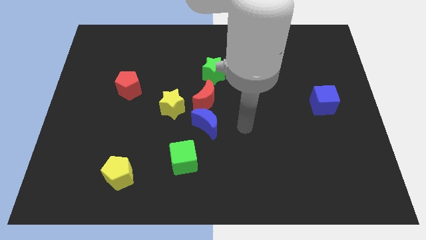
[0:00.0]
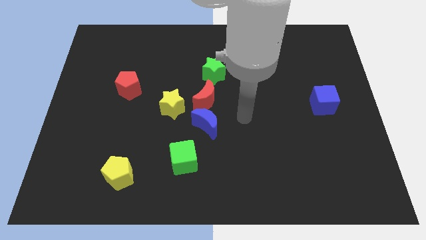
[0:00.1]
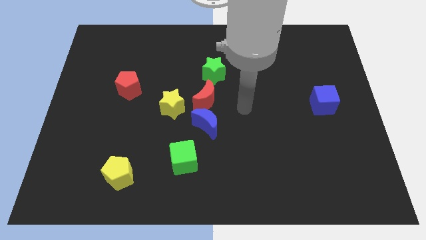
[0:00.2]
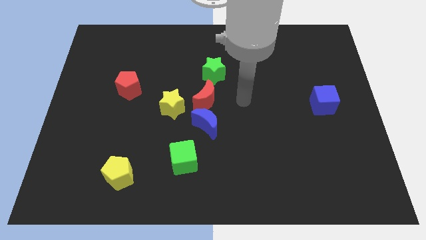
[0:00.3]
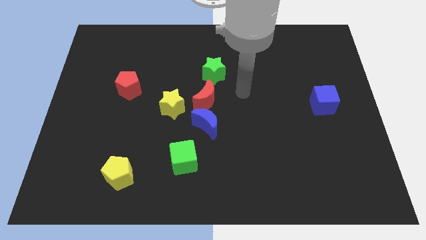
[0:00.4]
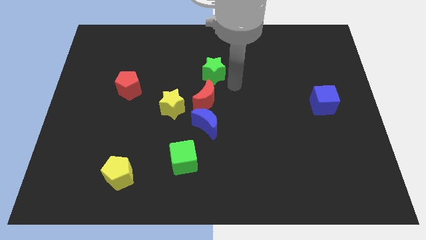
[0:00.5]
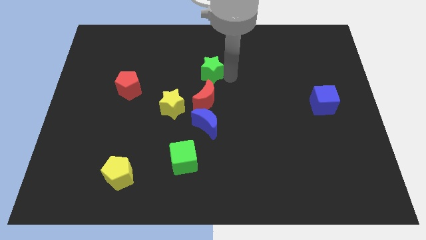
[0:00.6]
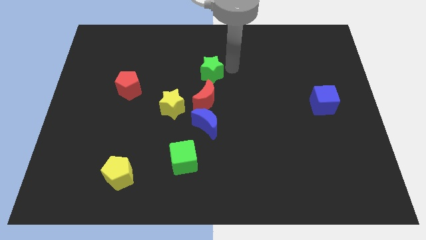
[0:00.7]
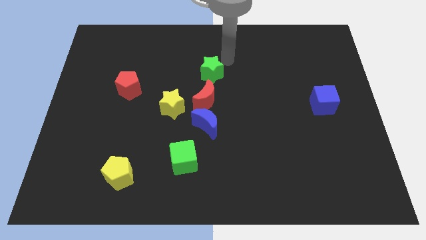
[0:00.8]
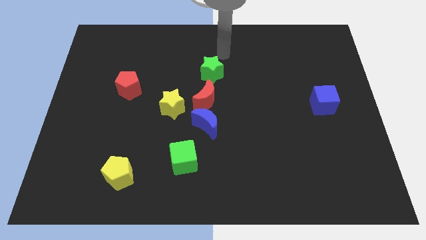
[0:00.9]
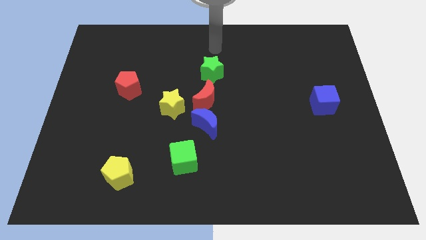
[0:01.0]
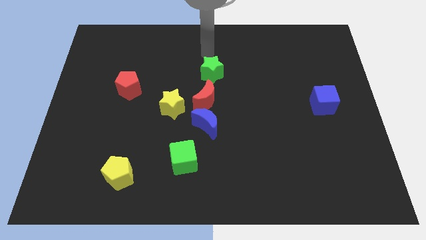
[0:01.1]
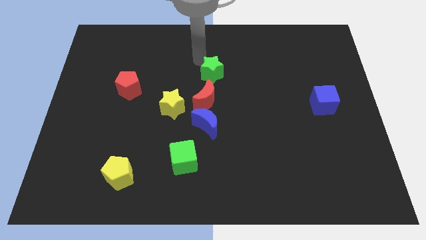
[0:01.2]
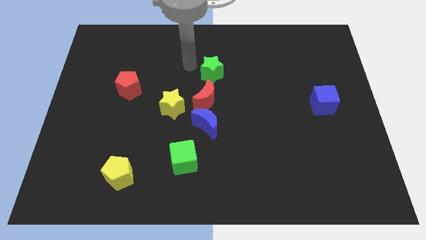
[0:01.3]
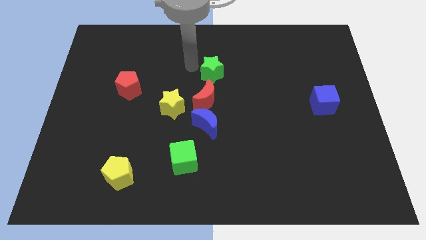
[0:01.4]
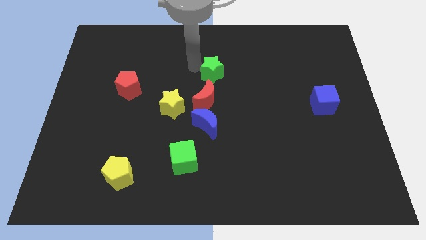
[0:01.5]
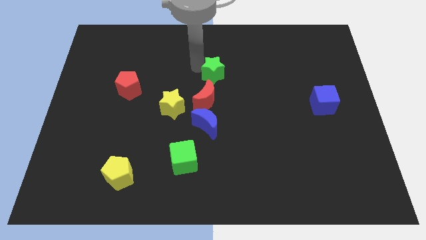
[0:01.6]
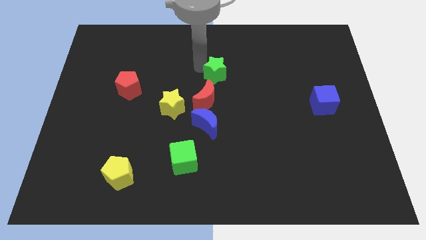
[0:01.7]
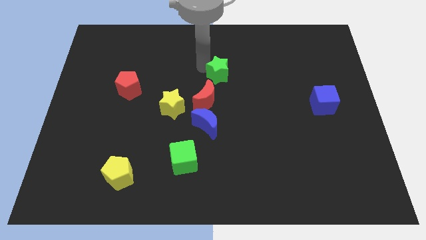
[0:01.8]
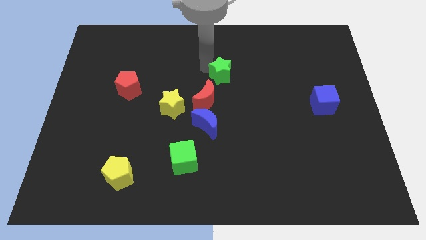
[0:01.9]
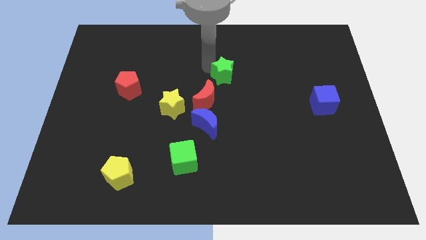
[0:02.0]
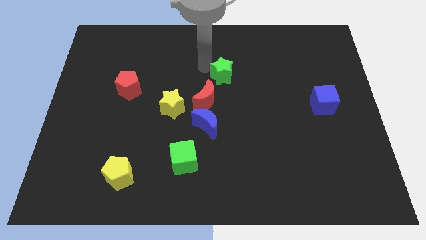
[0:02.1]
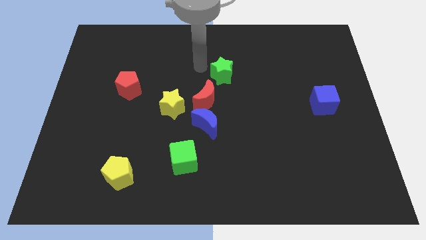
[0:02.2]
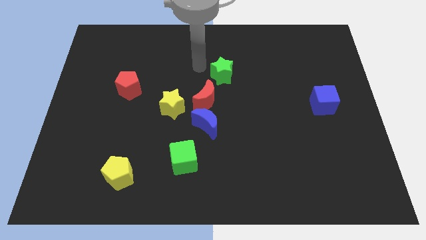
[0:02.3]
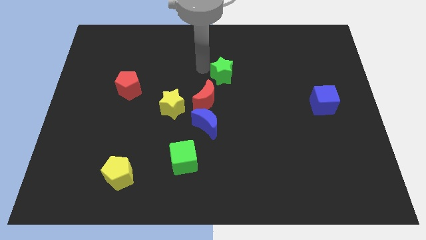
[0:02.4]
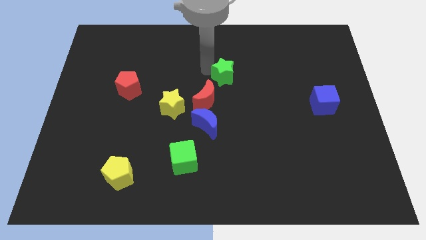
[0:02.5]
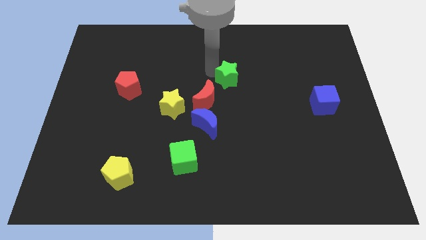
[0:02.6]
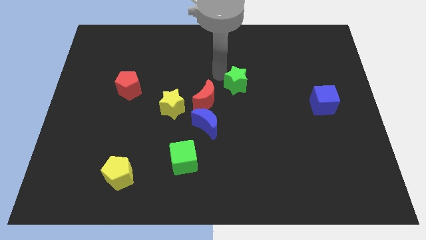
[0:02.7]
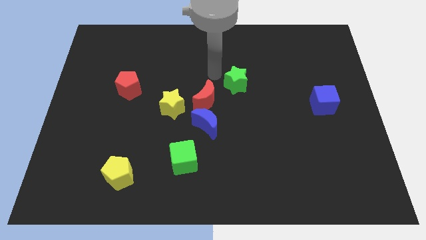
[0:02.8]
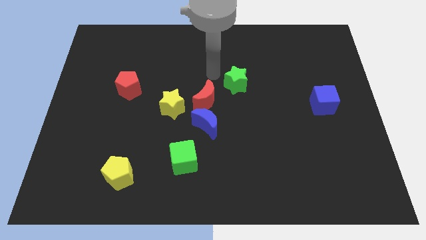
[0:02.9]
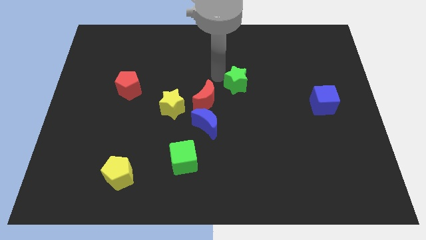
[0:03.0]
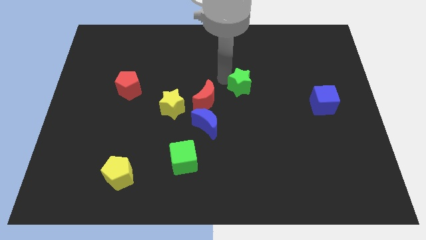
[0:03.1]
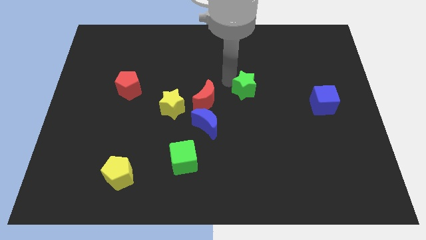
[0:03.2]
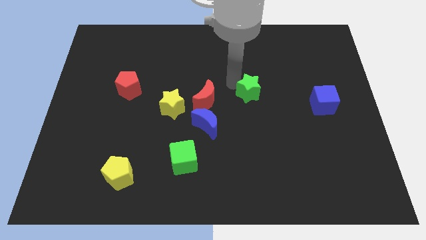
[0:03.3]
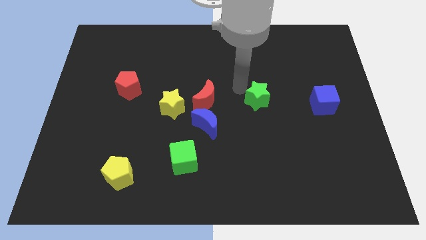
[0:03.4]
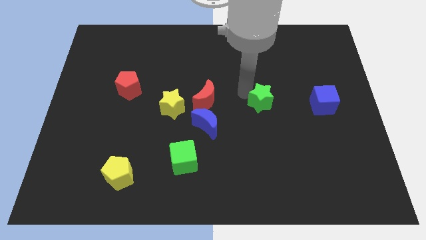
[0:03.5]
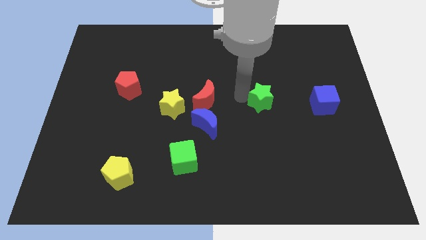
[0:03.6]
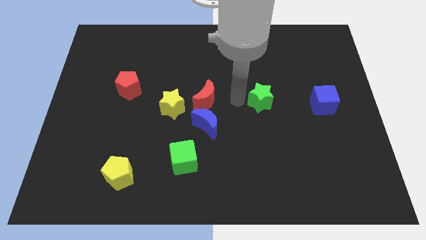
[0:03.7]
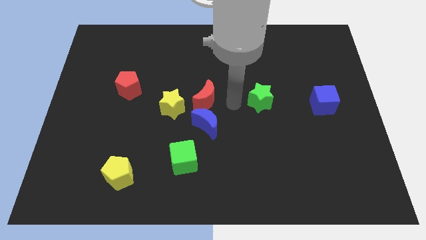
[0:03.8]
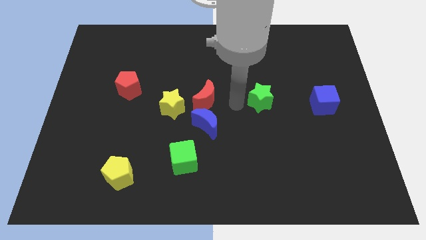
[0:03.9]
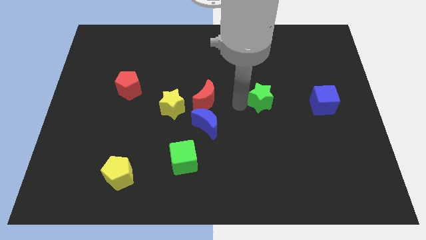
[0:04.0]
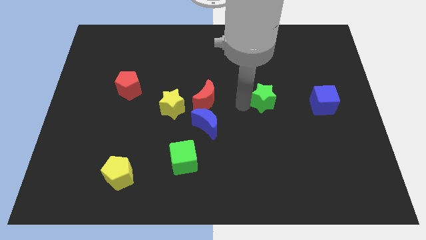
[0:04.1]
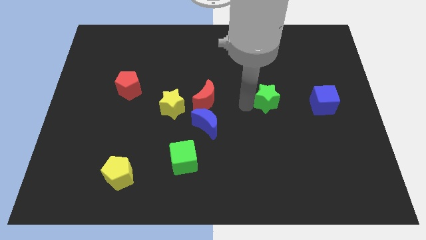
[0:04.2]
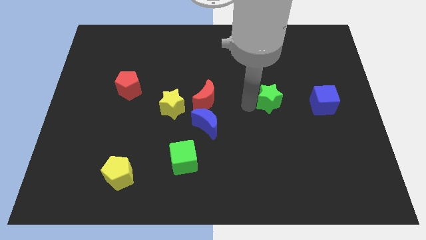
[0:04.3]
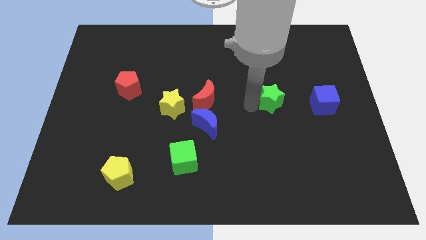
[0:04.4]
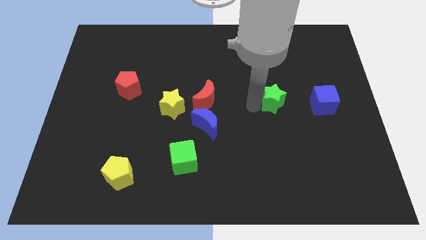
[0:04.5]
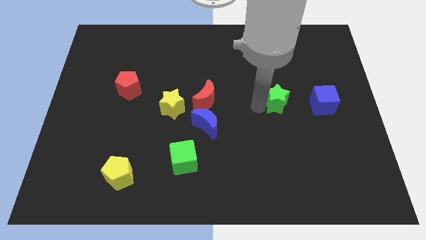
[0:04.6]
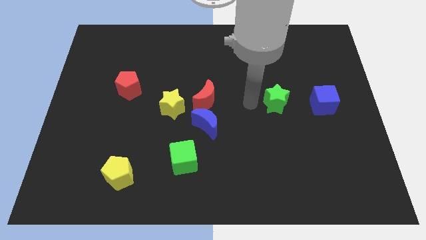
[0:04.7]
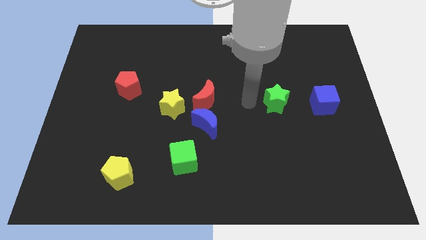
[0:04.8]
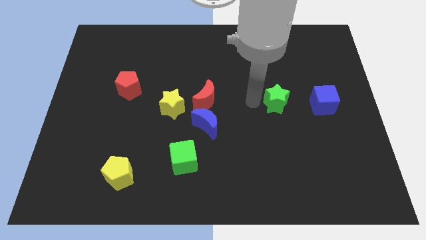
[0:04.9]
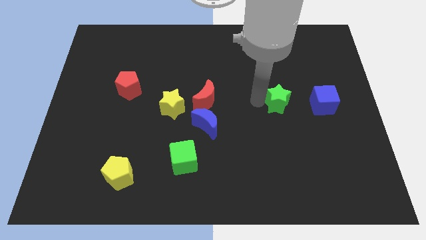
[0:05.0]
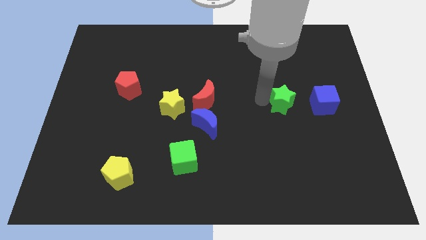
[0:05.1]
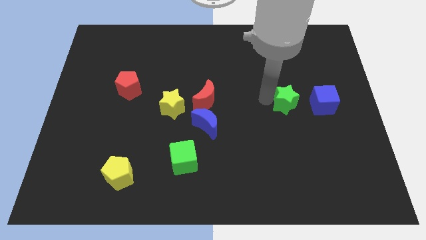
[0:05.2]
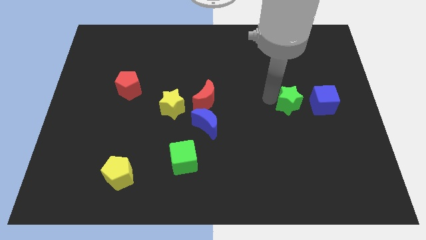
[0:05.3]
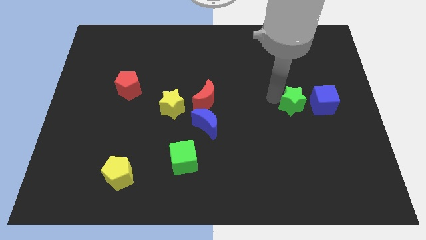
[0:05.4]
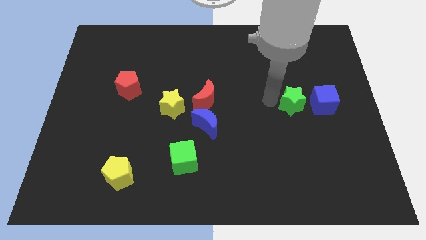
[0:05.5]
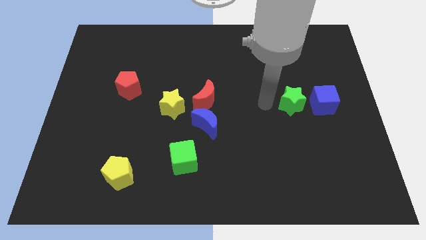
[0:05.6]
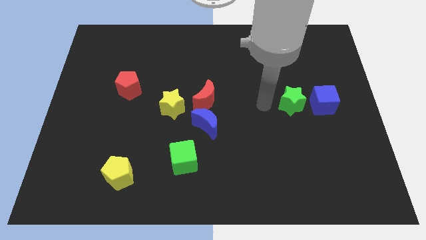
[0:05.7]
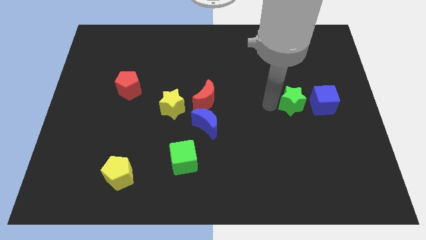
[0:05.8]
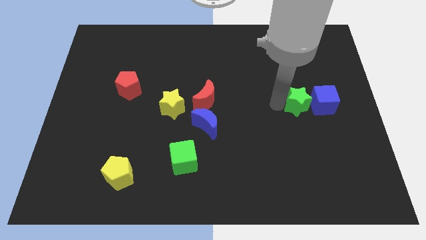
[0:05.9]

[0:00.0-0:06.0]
slide the green star next to the blue cube

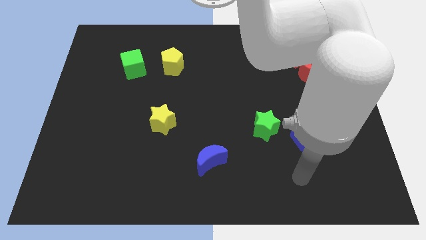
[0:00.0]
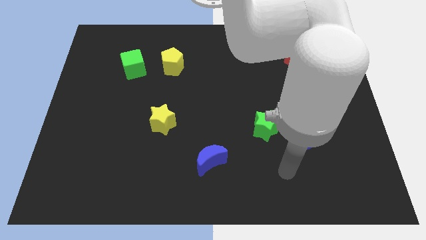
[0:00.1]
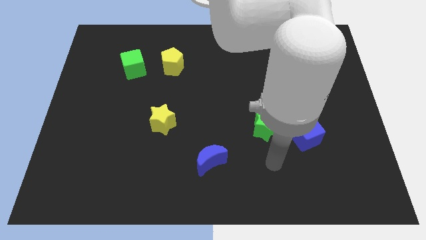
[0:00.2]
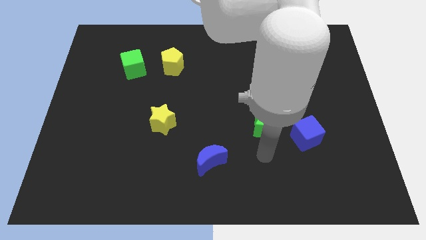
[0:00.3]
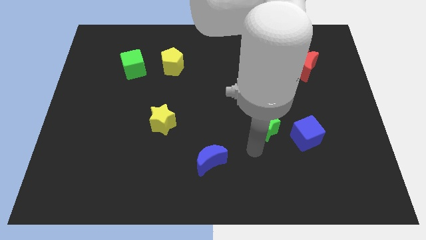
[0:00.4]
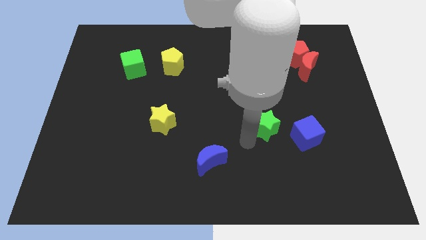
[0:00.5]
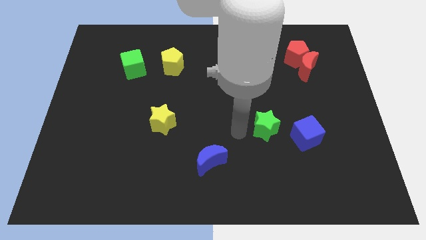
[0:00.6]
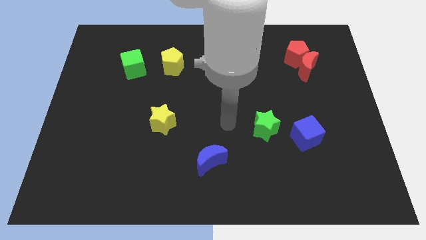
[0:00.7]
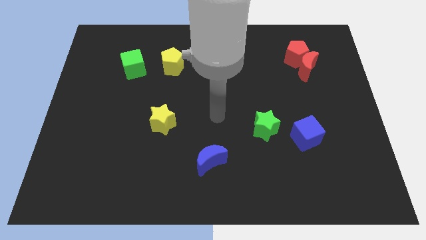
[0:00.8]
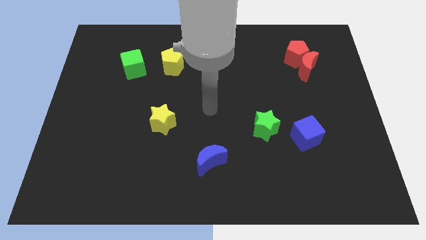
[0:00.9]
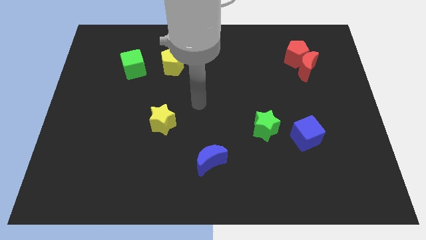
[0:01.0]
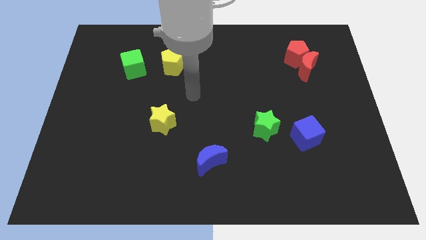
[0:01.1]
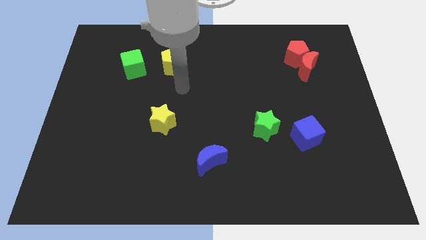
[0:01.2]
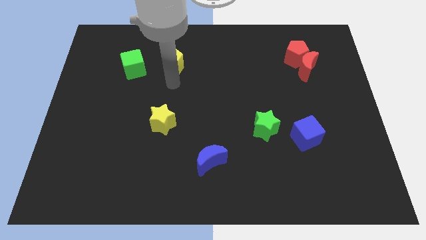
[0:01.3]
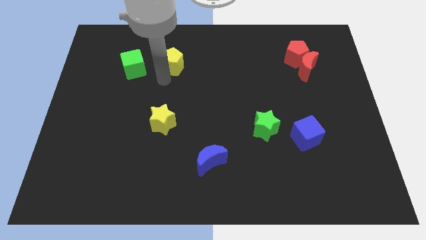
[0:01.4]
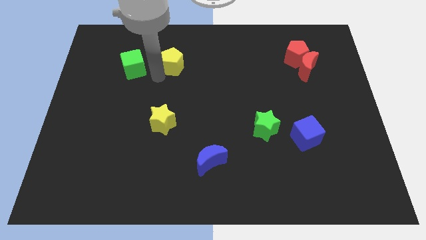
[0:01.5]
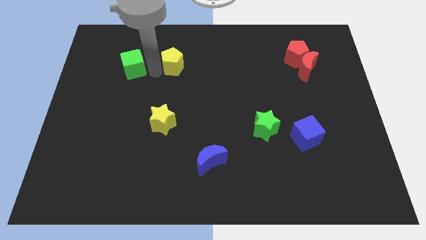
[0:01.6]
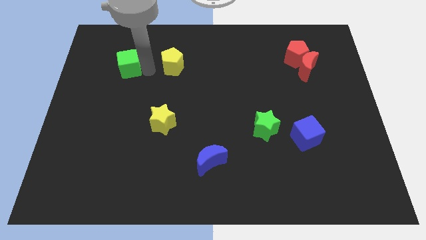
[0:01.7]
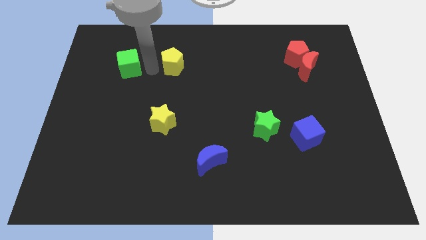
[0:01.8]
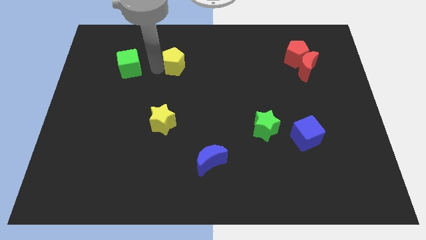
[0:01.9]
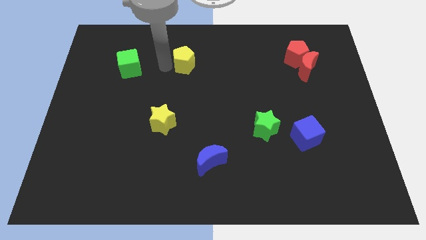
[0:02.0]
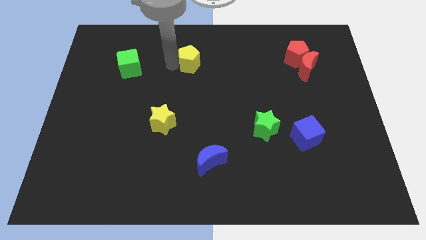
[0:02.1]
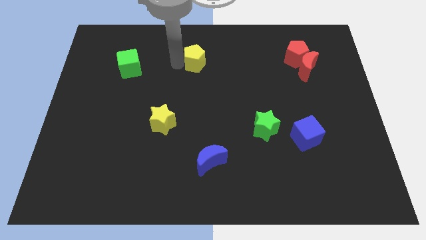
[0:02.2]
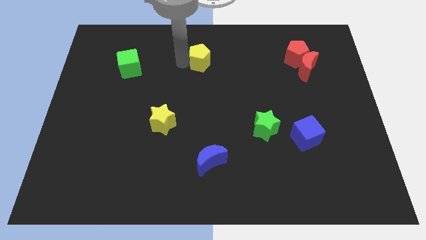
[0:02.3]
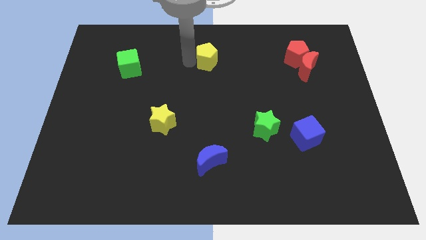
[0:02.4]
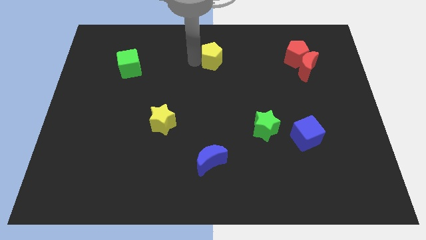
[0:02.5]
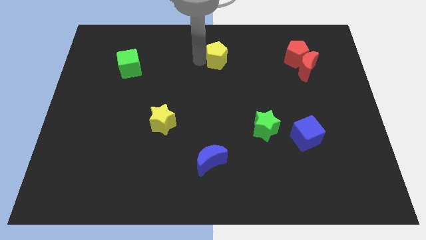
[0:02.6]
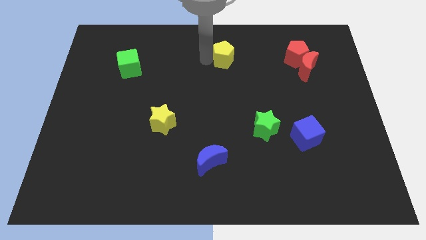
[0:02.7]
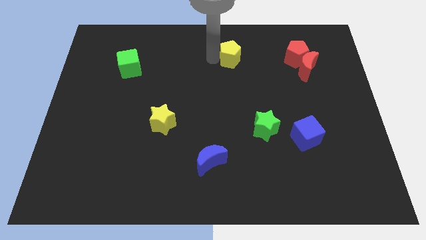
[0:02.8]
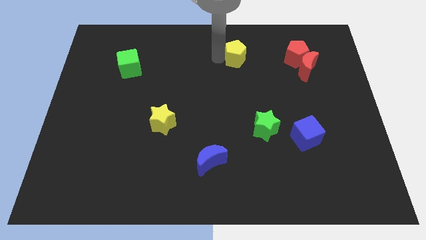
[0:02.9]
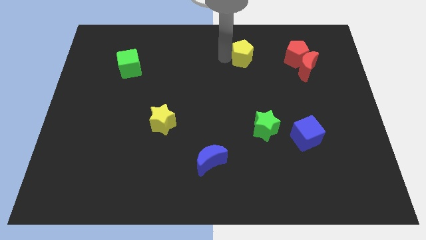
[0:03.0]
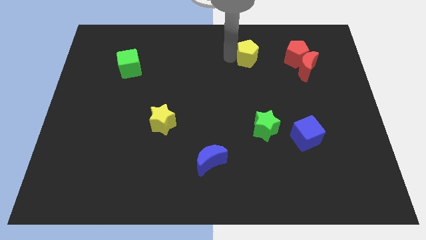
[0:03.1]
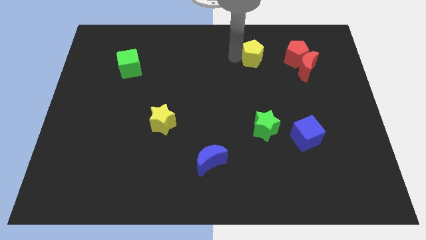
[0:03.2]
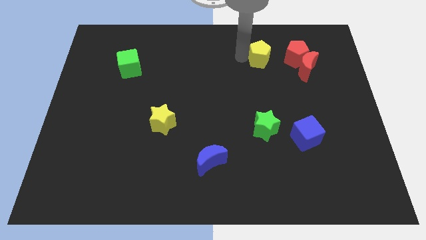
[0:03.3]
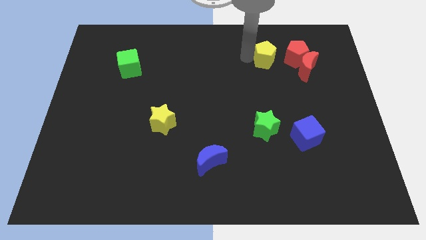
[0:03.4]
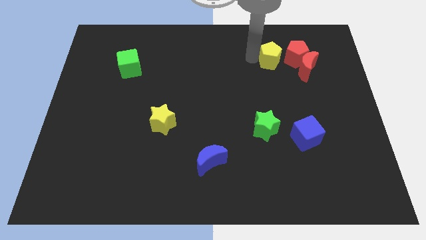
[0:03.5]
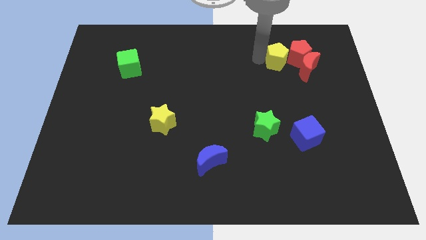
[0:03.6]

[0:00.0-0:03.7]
move the yellow pentagon close to the red pentagon
